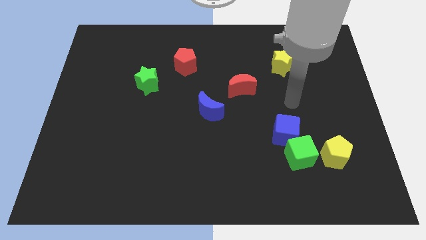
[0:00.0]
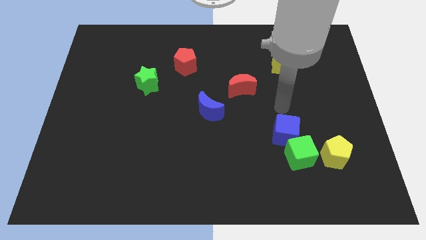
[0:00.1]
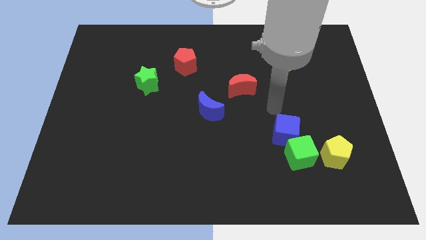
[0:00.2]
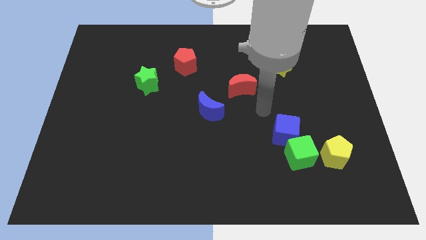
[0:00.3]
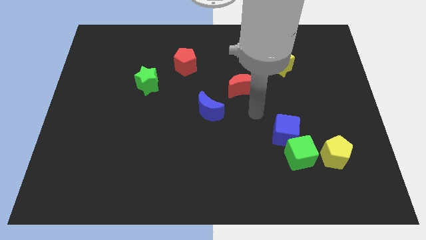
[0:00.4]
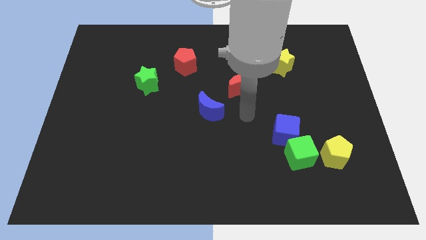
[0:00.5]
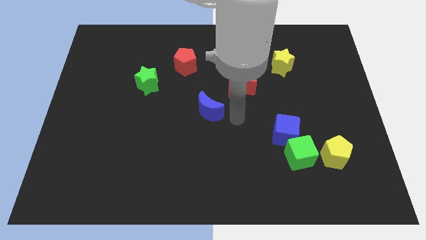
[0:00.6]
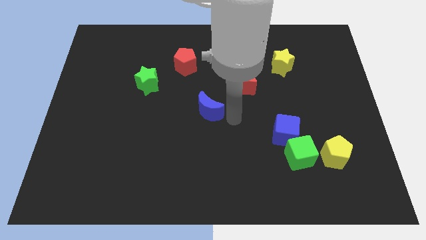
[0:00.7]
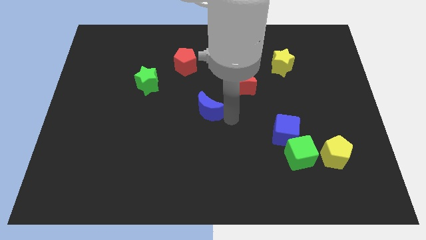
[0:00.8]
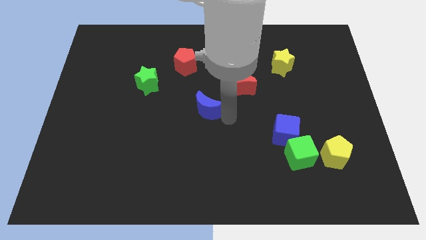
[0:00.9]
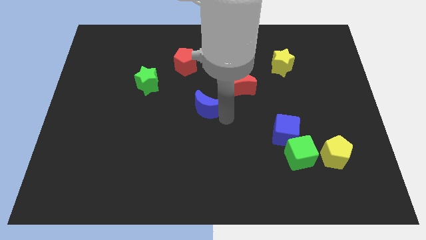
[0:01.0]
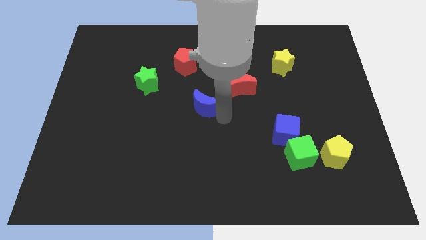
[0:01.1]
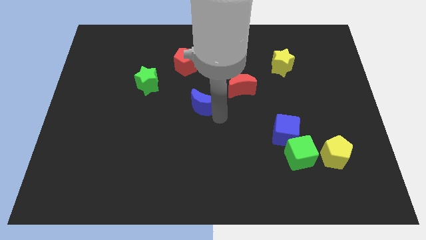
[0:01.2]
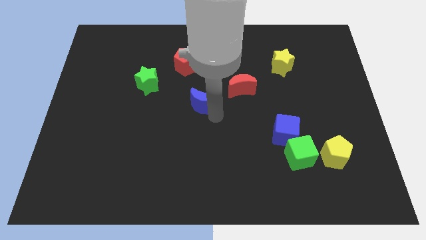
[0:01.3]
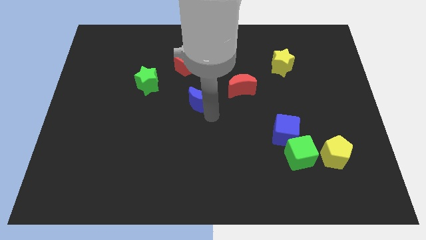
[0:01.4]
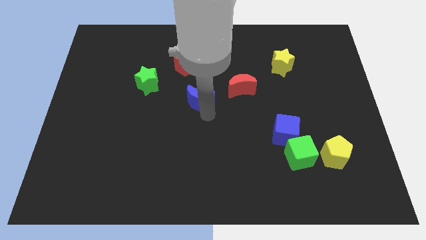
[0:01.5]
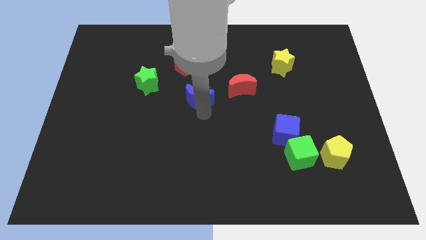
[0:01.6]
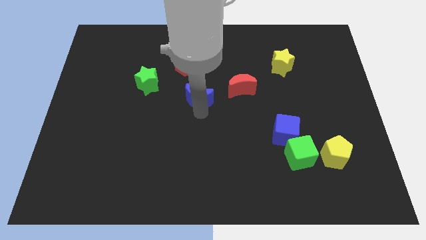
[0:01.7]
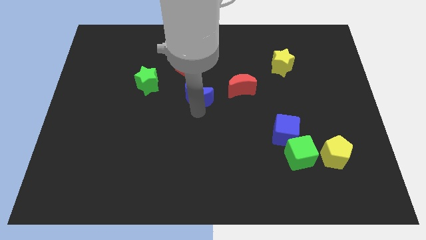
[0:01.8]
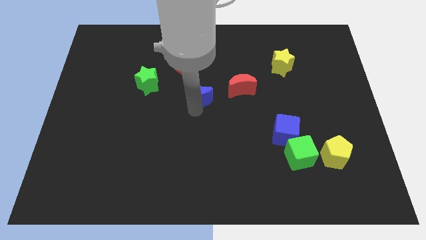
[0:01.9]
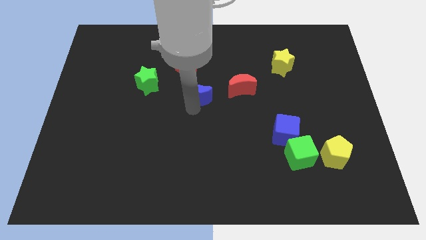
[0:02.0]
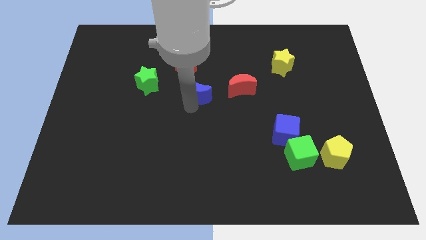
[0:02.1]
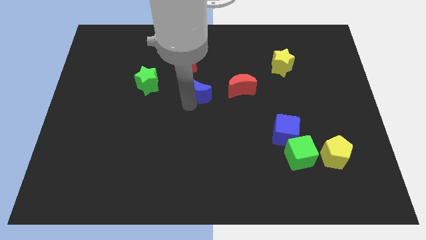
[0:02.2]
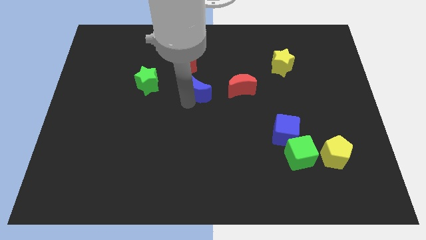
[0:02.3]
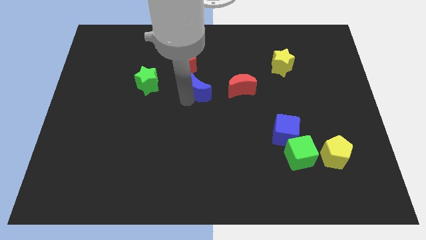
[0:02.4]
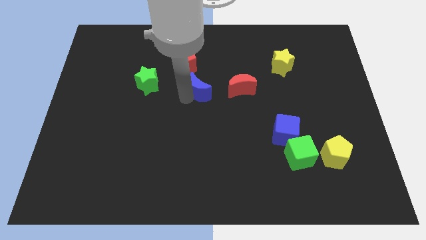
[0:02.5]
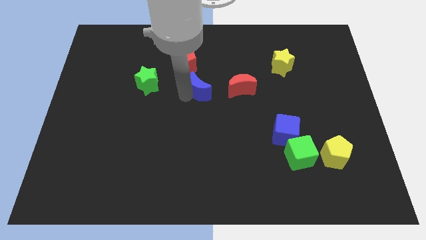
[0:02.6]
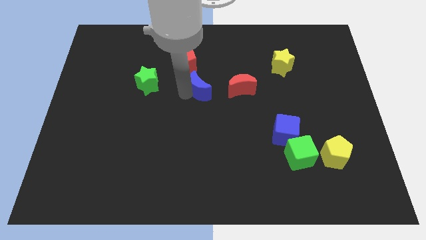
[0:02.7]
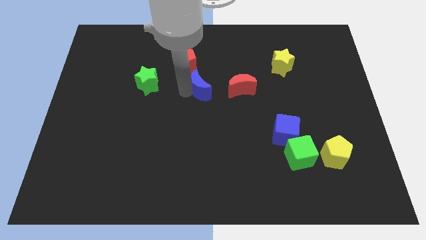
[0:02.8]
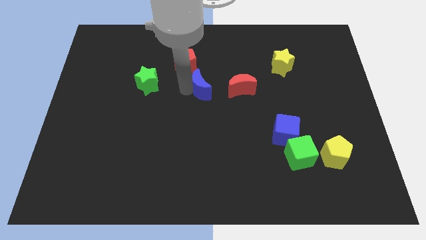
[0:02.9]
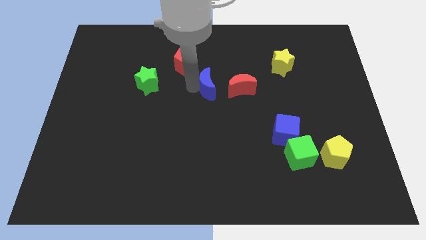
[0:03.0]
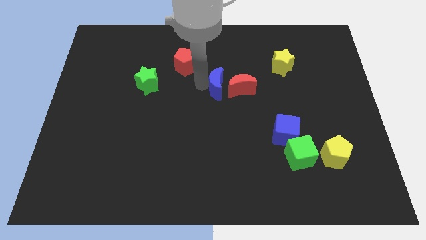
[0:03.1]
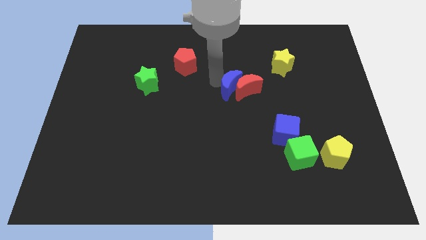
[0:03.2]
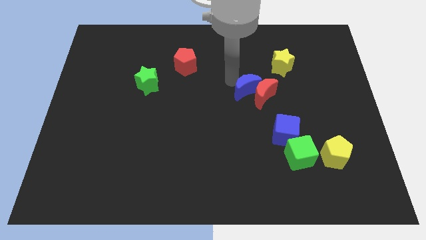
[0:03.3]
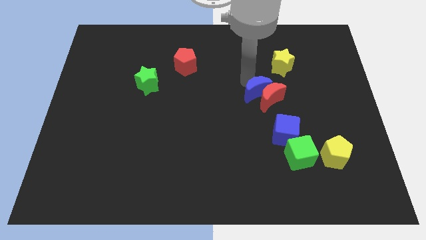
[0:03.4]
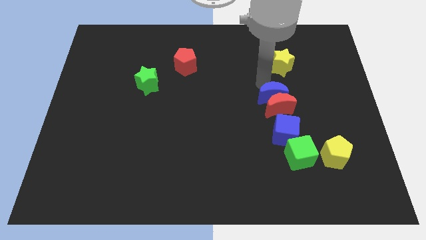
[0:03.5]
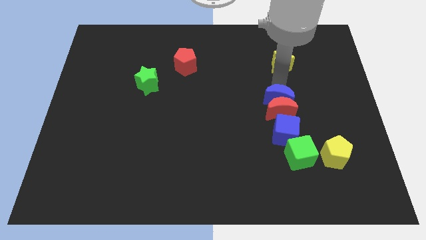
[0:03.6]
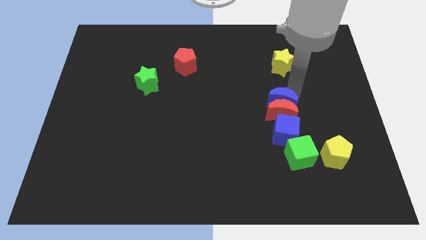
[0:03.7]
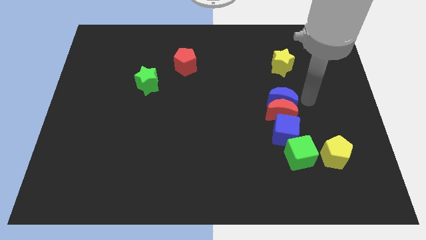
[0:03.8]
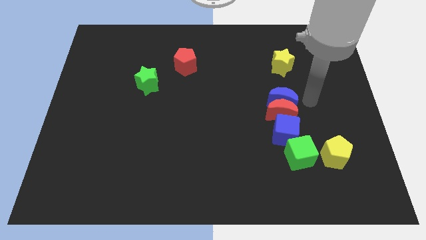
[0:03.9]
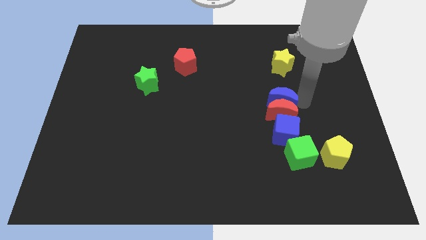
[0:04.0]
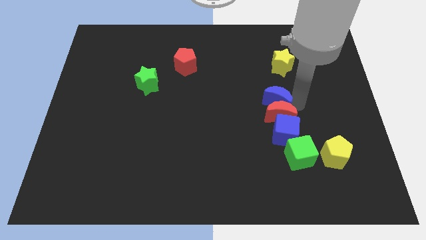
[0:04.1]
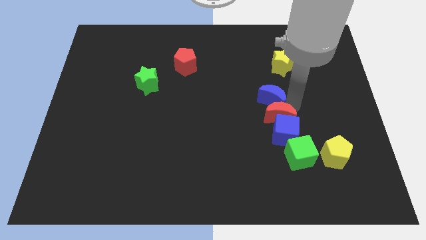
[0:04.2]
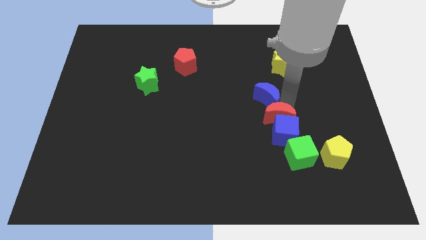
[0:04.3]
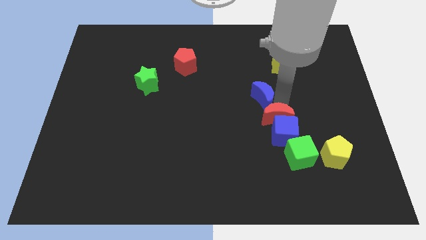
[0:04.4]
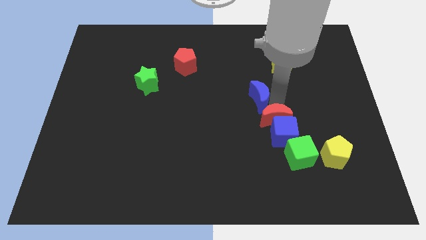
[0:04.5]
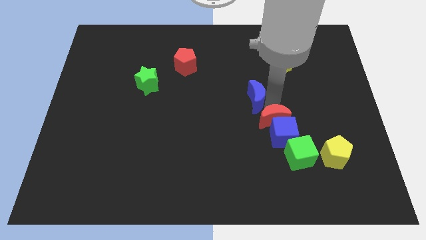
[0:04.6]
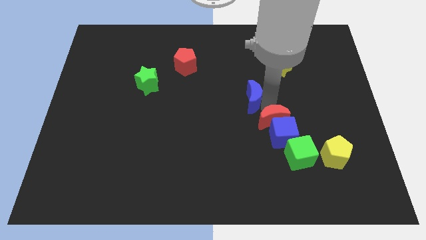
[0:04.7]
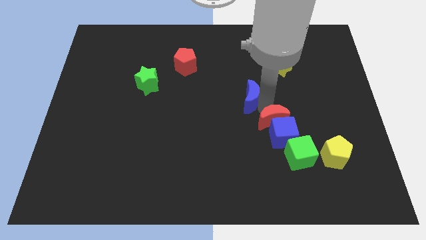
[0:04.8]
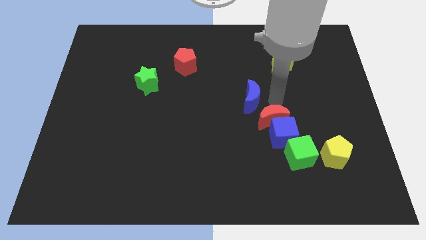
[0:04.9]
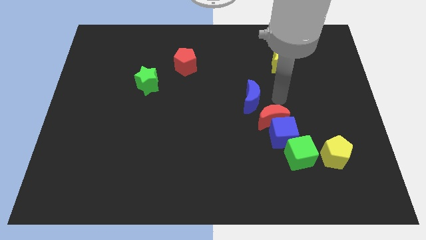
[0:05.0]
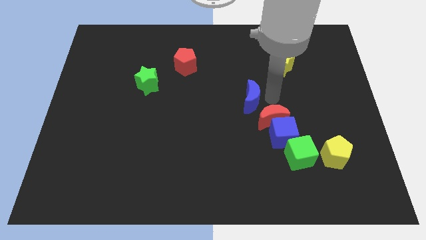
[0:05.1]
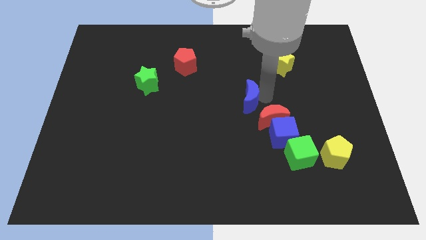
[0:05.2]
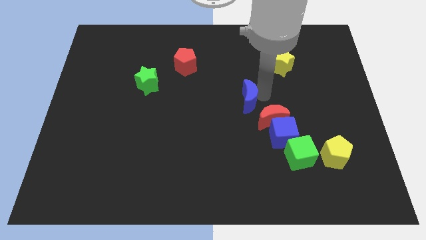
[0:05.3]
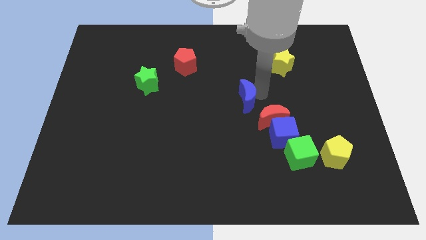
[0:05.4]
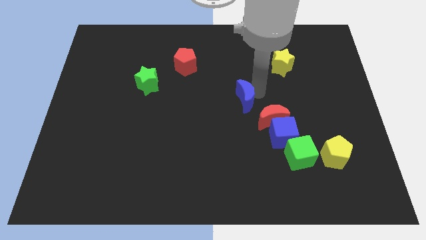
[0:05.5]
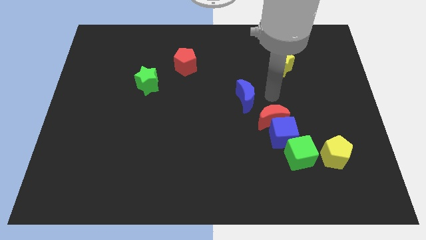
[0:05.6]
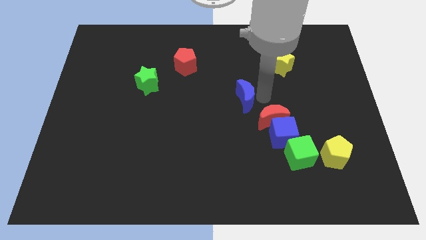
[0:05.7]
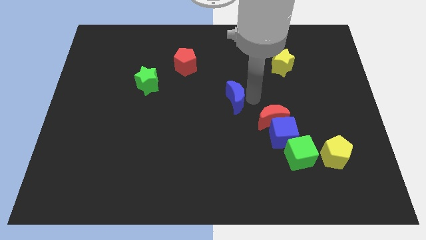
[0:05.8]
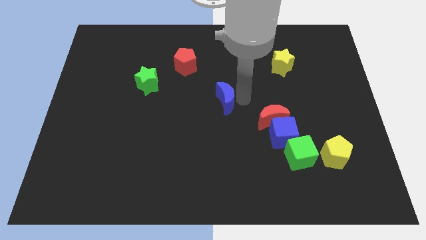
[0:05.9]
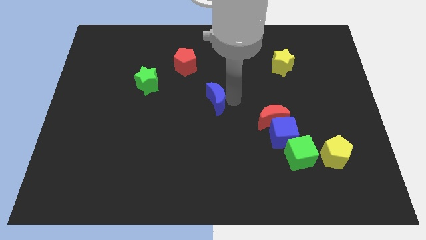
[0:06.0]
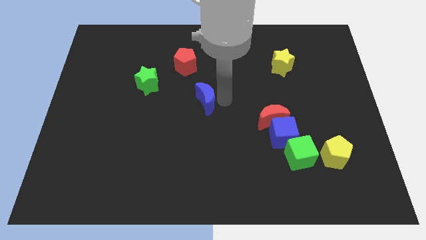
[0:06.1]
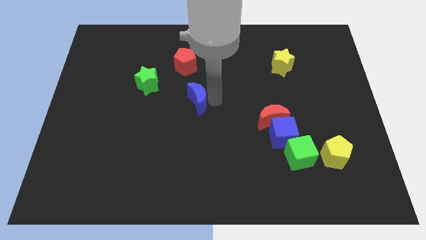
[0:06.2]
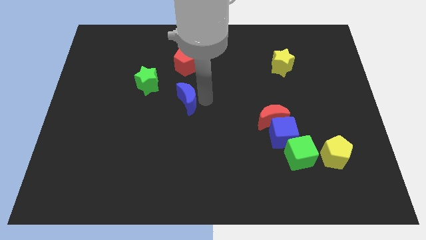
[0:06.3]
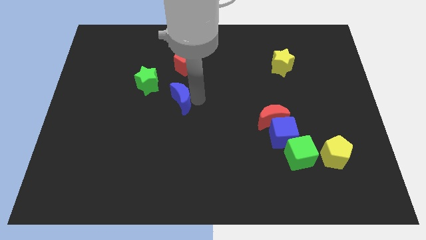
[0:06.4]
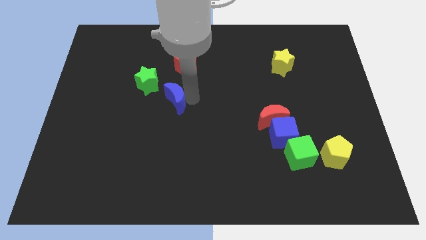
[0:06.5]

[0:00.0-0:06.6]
slightly push the blue moon to the left

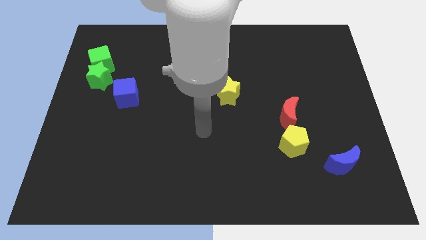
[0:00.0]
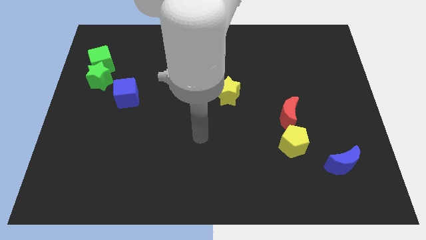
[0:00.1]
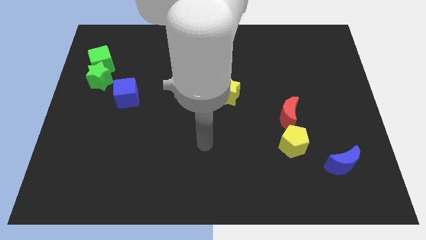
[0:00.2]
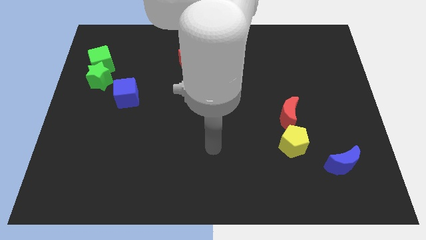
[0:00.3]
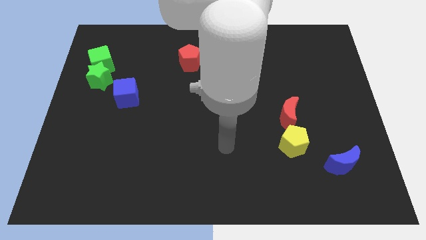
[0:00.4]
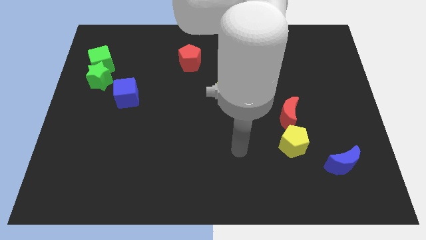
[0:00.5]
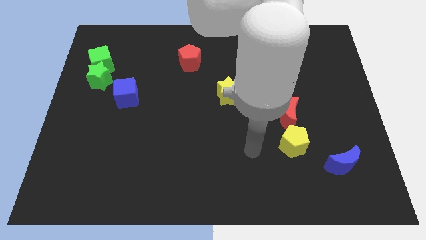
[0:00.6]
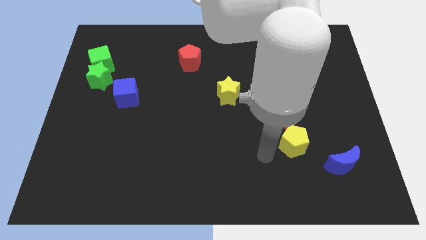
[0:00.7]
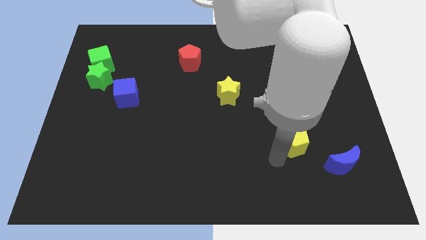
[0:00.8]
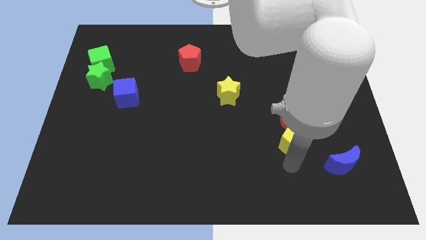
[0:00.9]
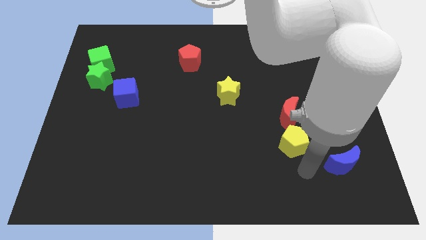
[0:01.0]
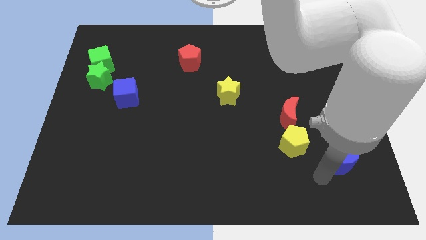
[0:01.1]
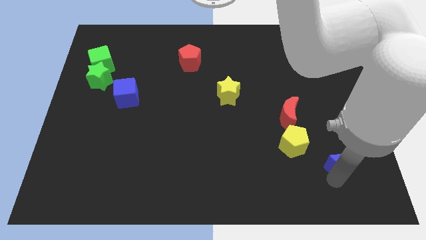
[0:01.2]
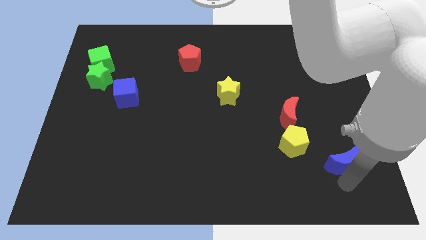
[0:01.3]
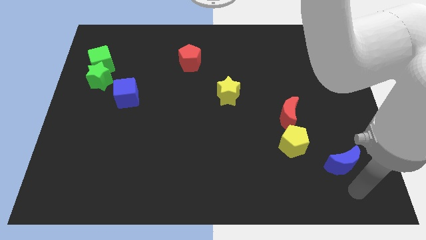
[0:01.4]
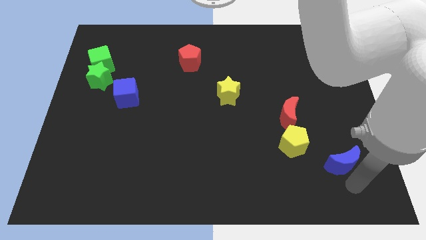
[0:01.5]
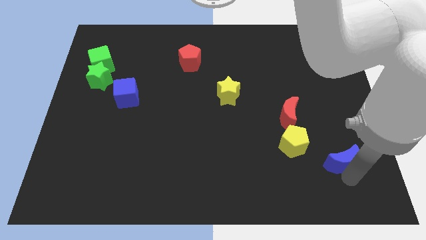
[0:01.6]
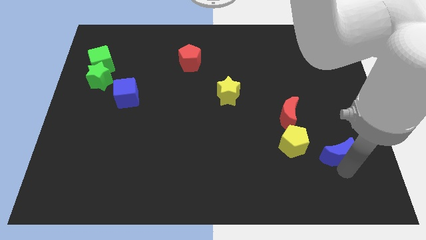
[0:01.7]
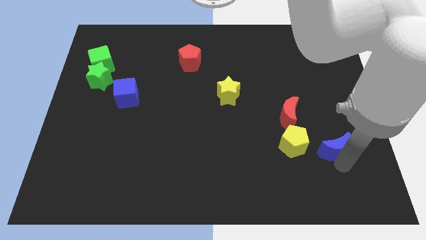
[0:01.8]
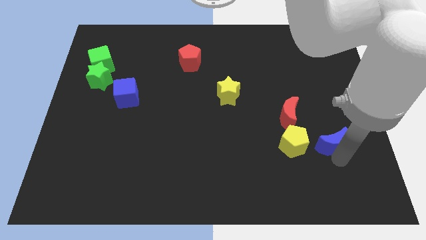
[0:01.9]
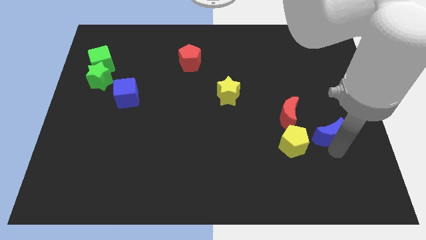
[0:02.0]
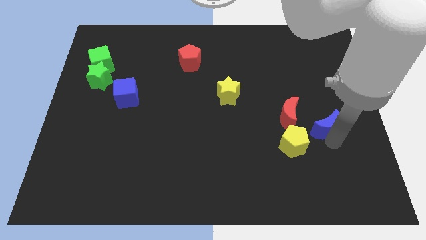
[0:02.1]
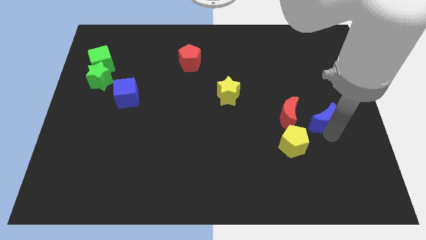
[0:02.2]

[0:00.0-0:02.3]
slightly slide the blue moon upwards and left diagonally
